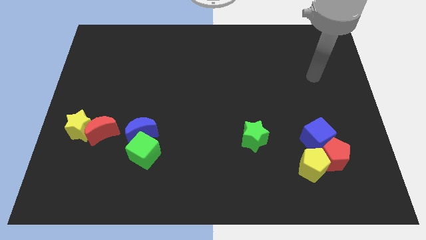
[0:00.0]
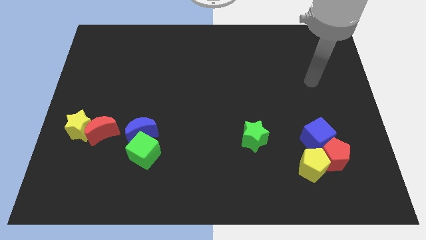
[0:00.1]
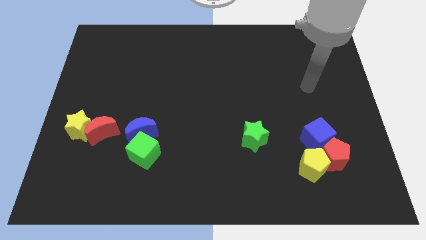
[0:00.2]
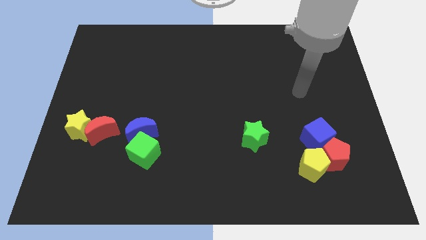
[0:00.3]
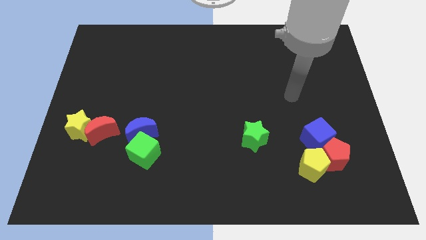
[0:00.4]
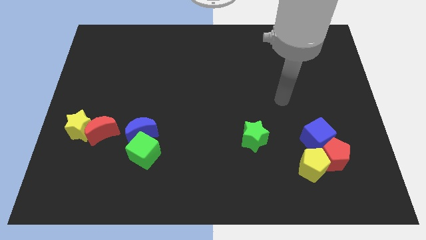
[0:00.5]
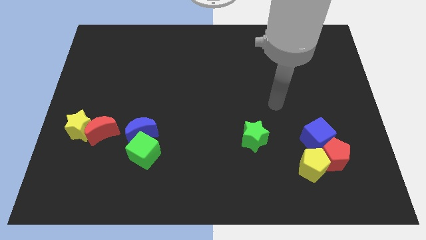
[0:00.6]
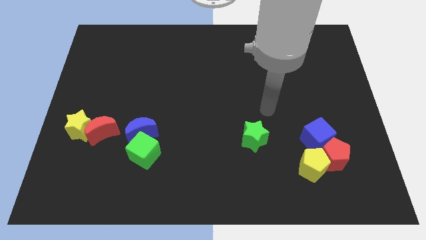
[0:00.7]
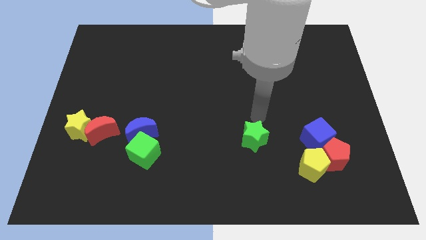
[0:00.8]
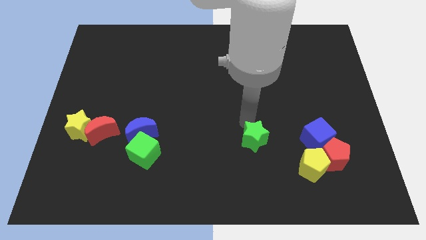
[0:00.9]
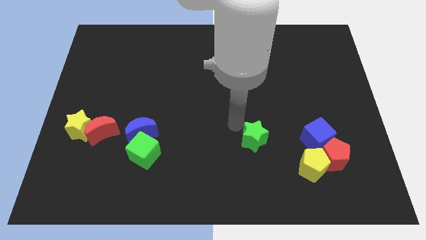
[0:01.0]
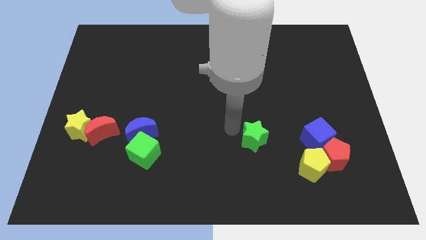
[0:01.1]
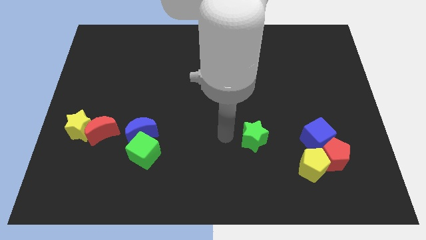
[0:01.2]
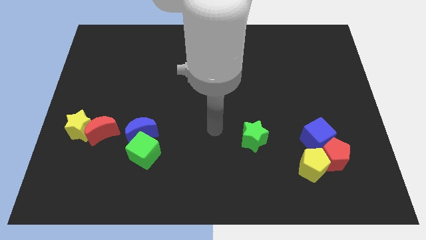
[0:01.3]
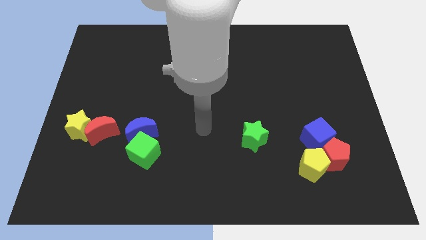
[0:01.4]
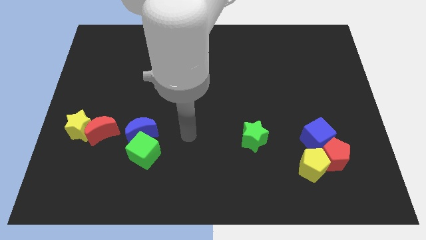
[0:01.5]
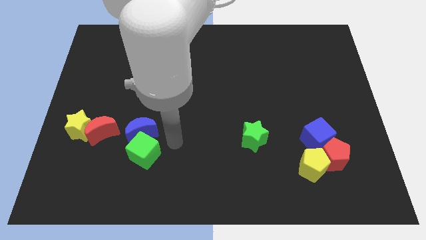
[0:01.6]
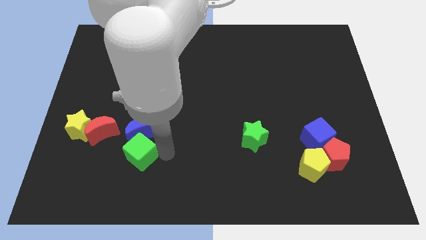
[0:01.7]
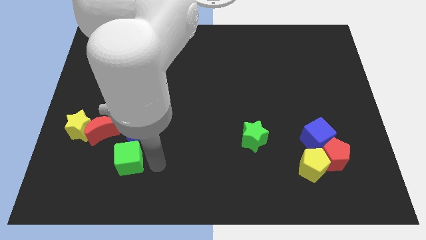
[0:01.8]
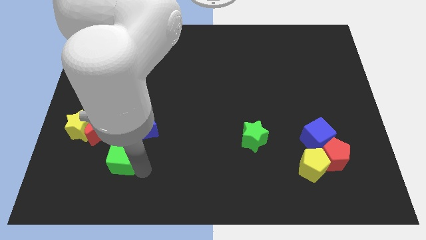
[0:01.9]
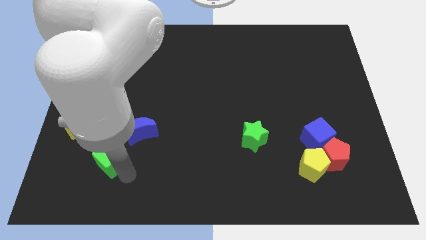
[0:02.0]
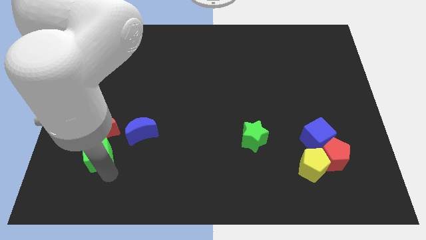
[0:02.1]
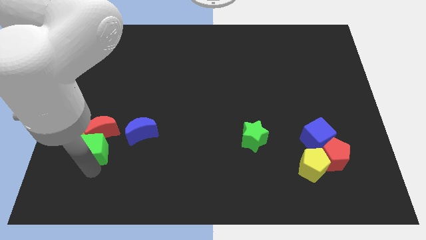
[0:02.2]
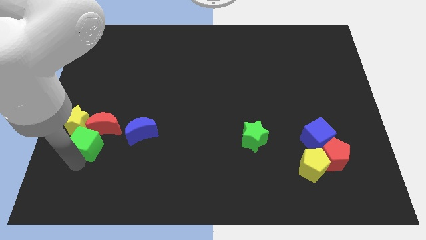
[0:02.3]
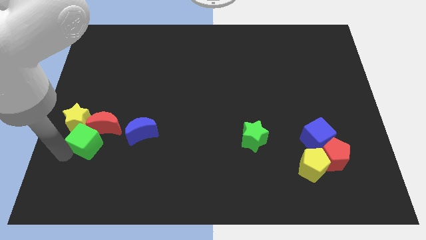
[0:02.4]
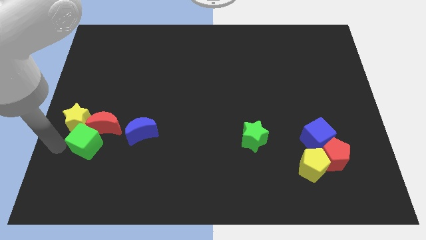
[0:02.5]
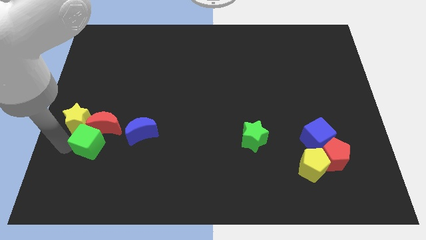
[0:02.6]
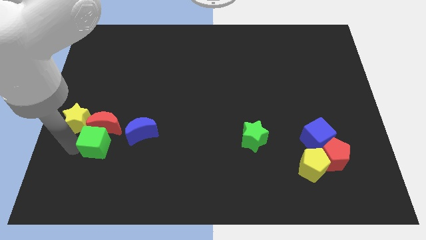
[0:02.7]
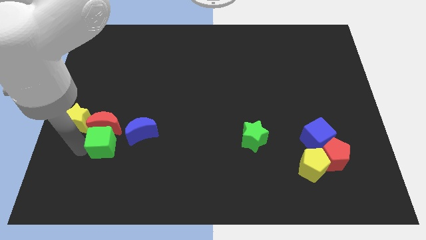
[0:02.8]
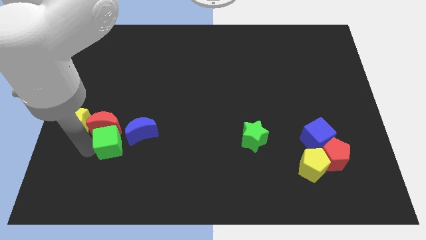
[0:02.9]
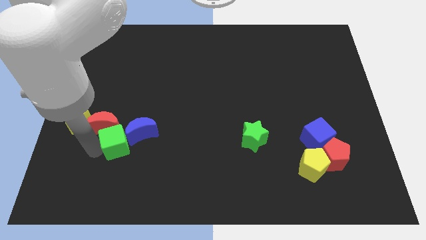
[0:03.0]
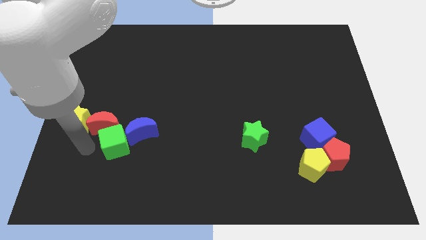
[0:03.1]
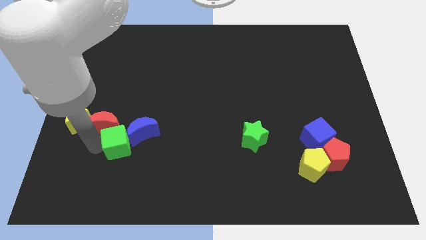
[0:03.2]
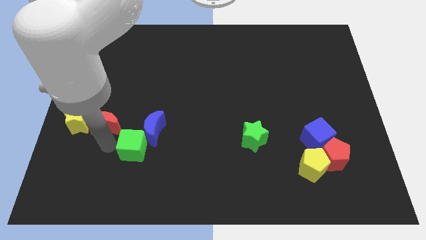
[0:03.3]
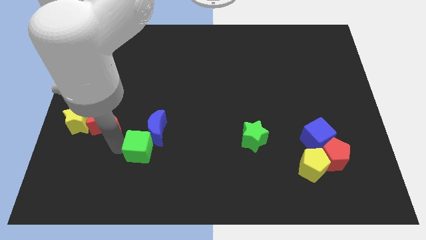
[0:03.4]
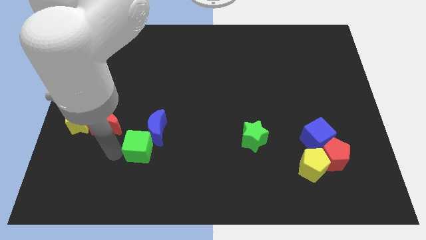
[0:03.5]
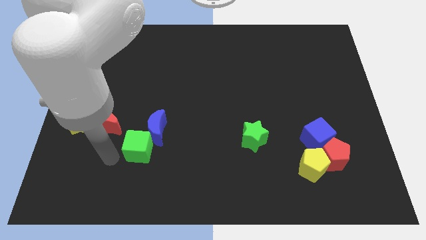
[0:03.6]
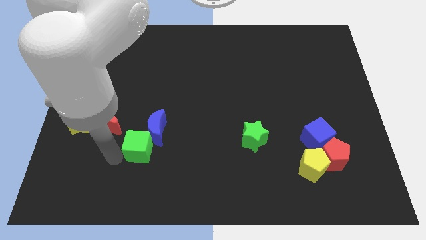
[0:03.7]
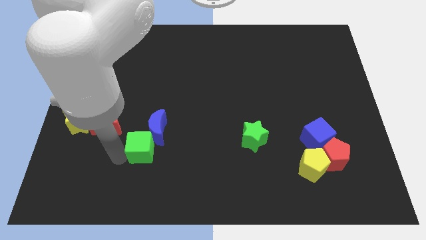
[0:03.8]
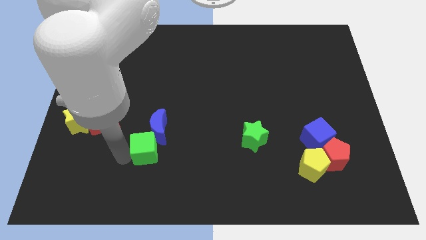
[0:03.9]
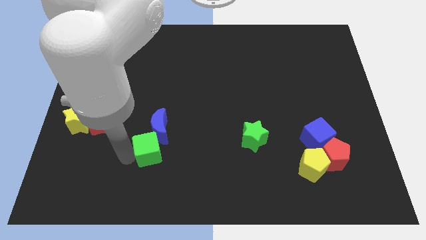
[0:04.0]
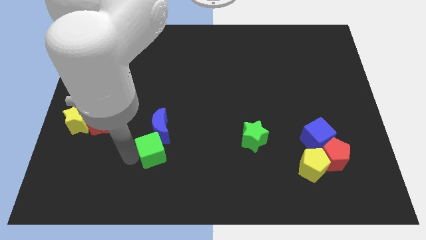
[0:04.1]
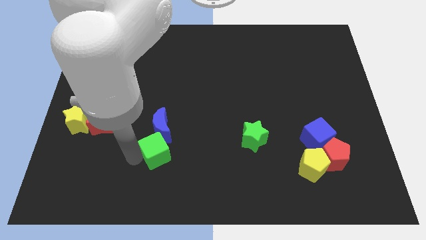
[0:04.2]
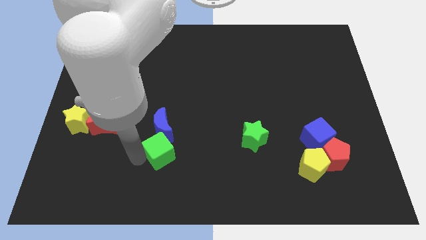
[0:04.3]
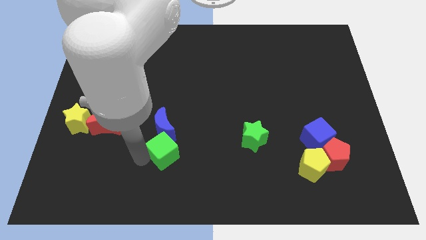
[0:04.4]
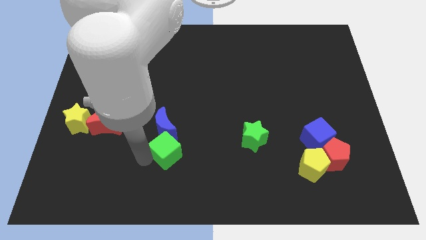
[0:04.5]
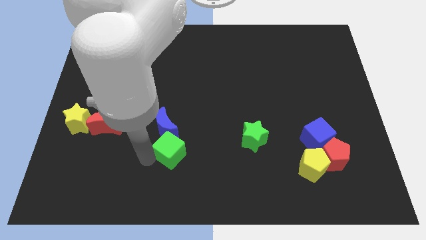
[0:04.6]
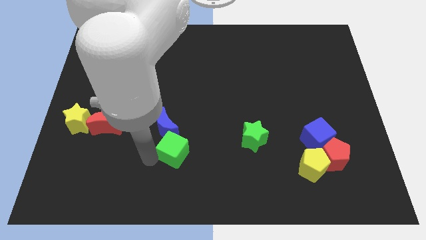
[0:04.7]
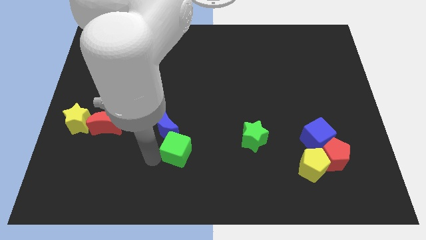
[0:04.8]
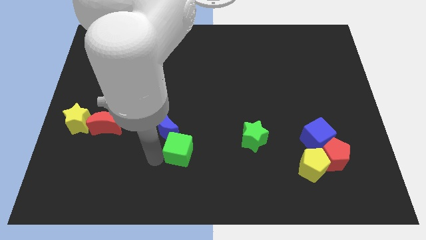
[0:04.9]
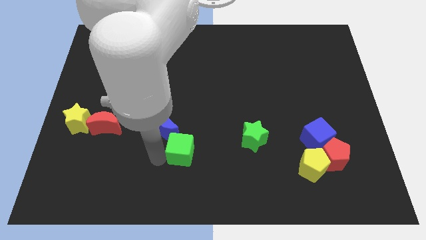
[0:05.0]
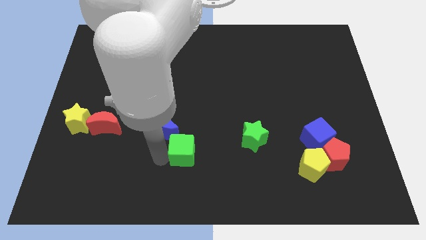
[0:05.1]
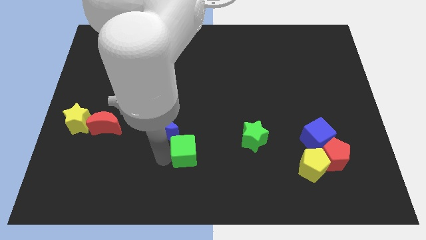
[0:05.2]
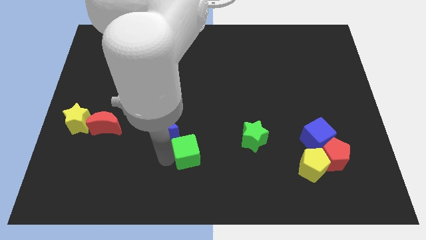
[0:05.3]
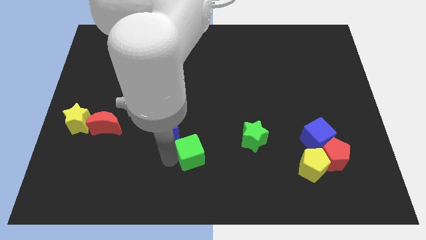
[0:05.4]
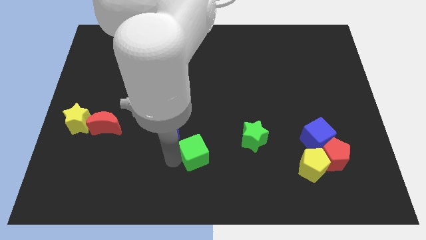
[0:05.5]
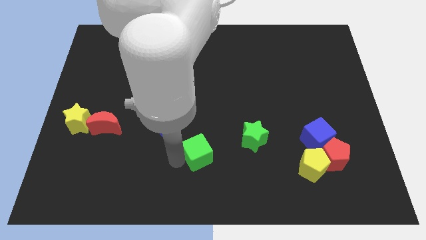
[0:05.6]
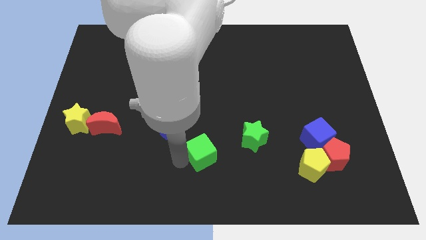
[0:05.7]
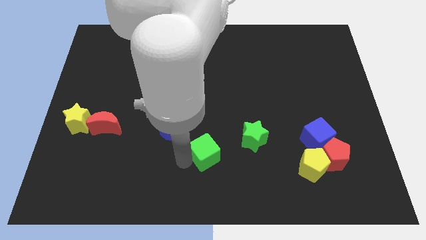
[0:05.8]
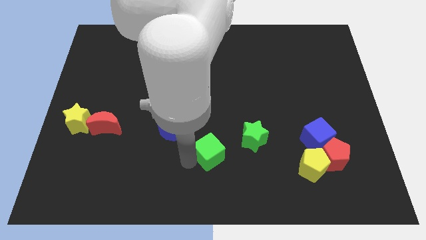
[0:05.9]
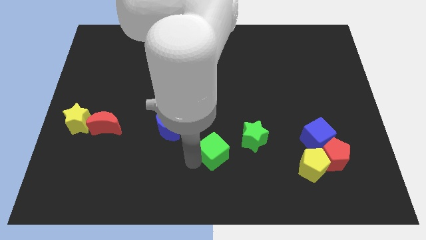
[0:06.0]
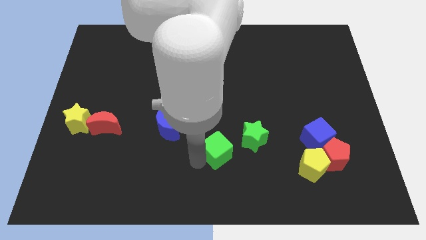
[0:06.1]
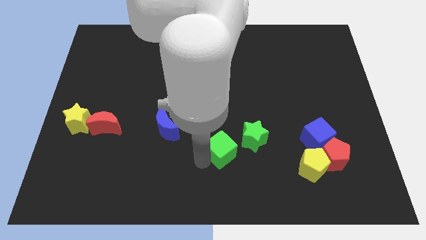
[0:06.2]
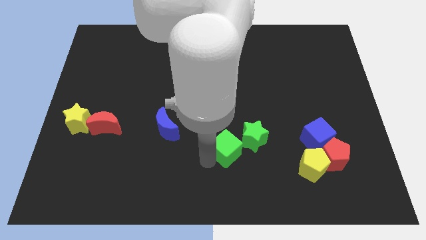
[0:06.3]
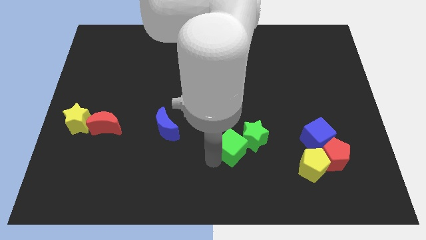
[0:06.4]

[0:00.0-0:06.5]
put the green cube towards the green star
